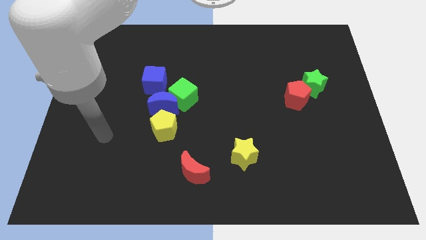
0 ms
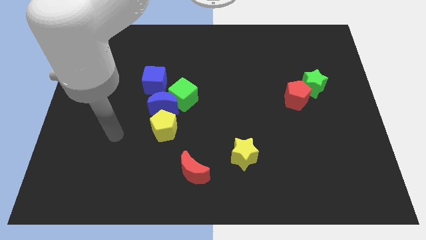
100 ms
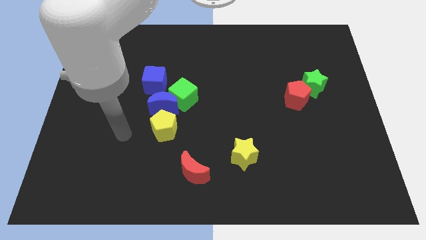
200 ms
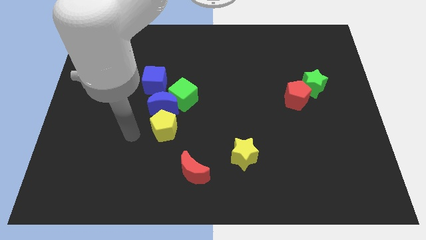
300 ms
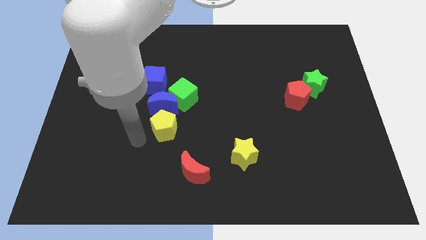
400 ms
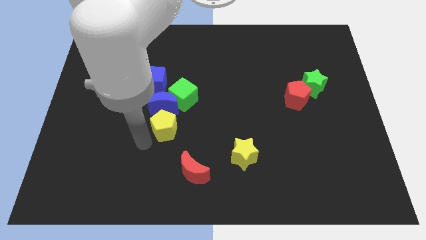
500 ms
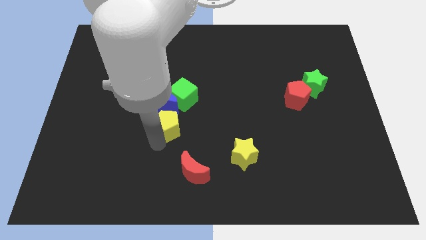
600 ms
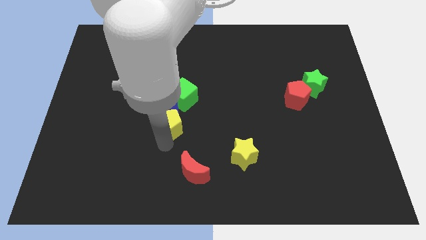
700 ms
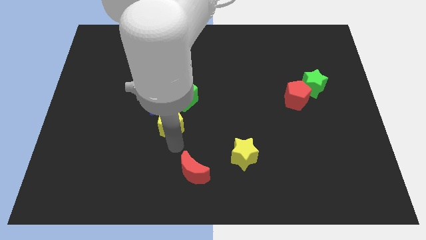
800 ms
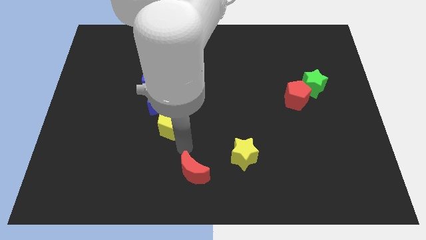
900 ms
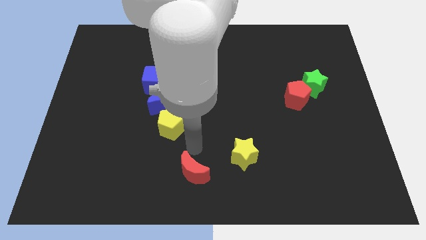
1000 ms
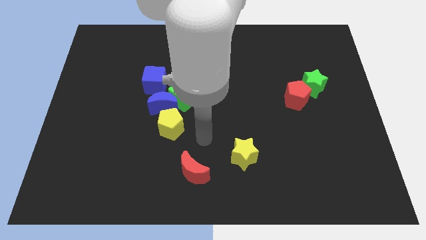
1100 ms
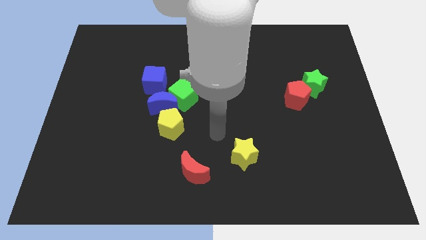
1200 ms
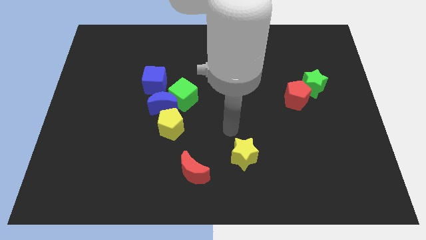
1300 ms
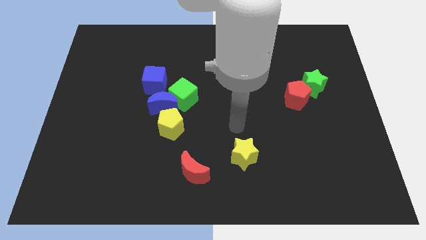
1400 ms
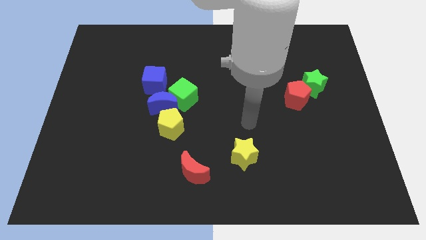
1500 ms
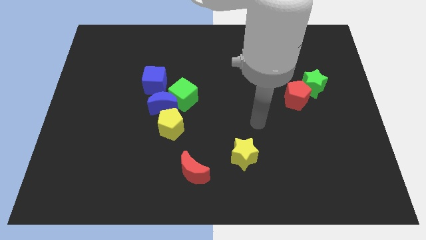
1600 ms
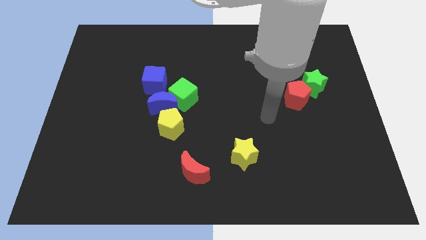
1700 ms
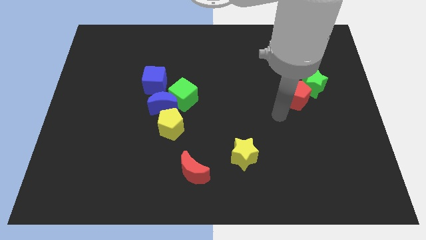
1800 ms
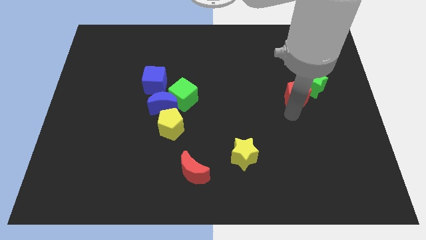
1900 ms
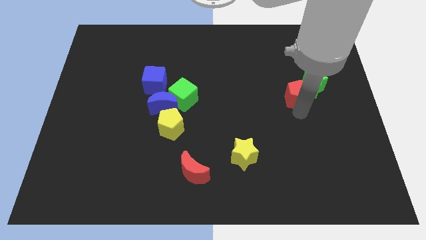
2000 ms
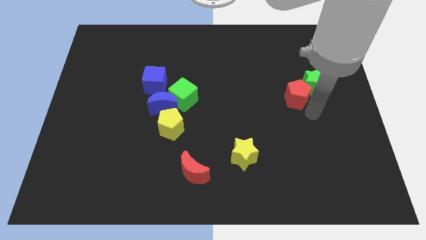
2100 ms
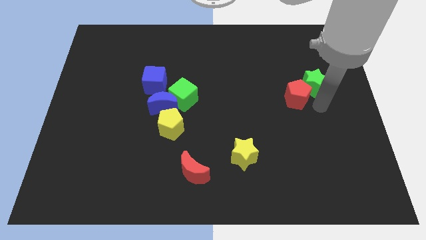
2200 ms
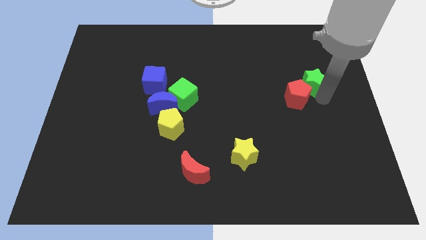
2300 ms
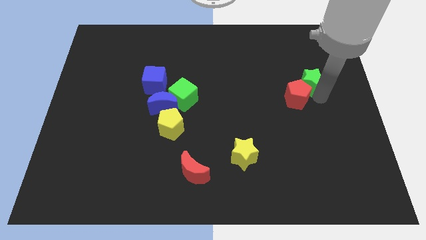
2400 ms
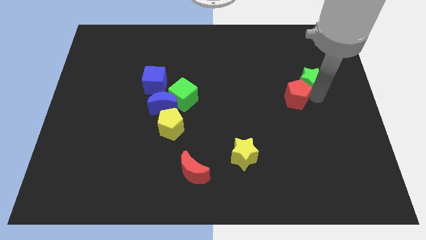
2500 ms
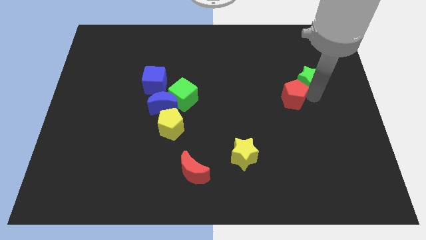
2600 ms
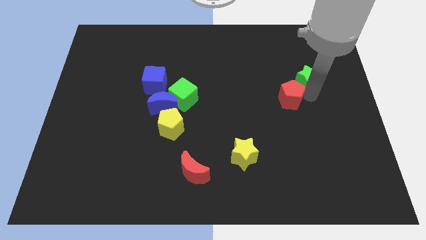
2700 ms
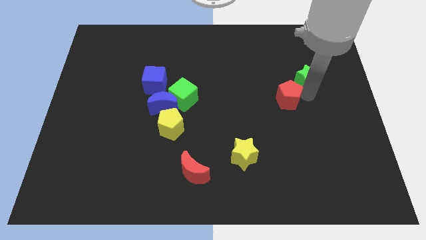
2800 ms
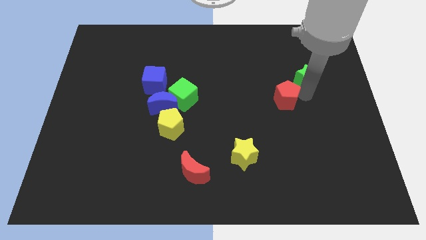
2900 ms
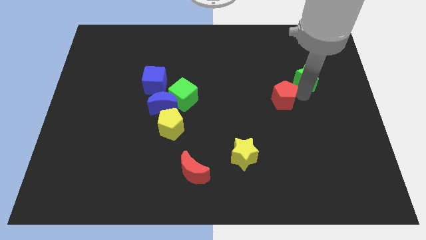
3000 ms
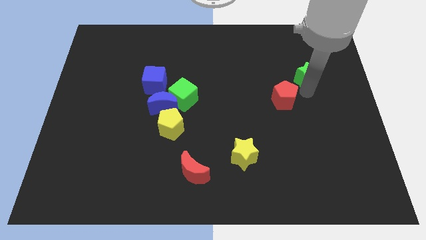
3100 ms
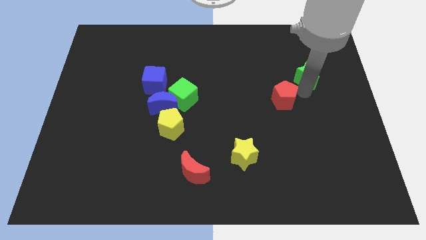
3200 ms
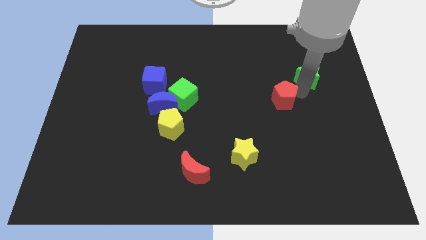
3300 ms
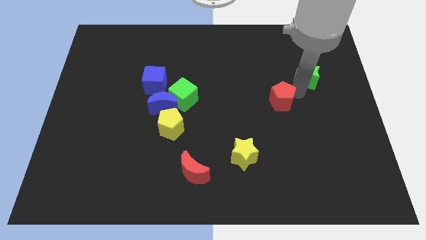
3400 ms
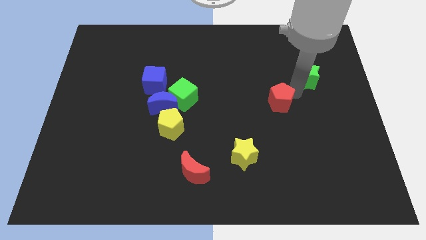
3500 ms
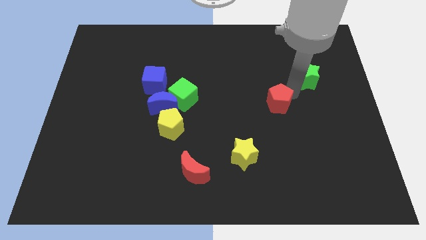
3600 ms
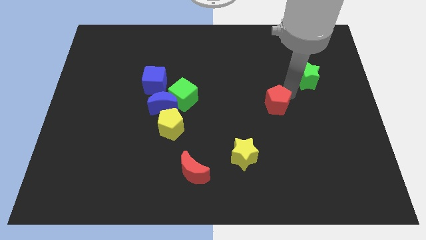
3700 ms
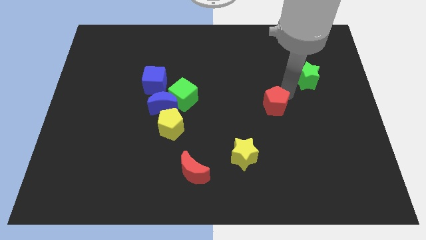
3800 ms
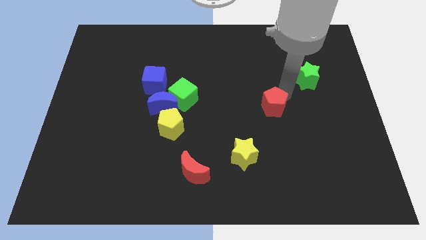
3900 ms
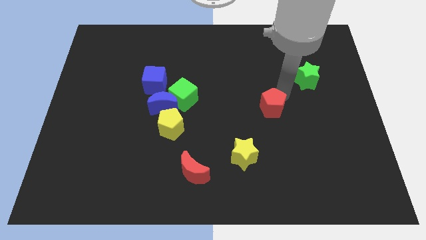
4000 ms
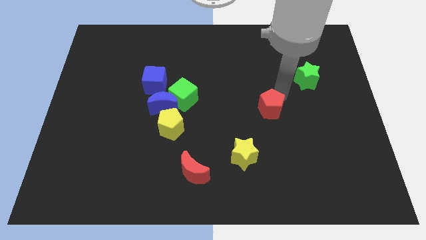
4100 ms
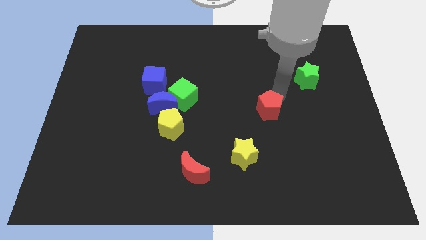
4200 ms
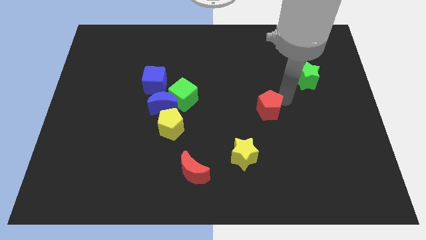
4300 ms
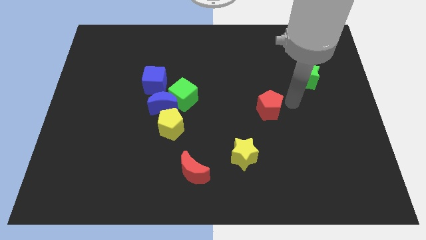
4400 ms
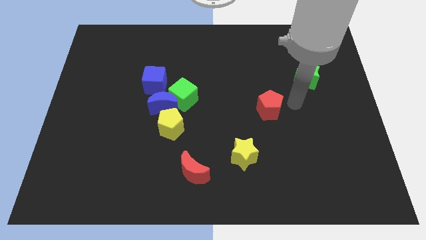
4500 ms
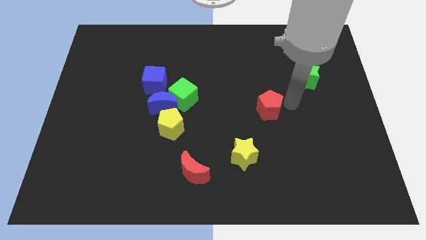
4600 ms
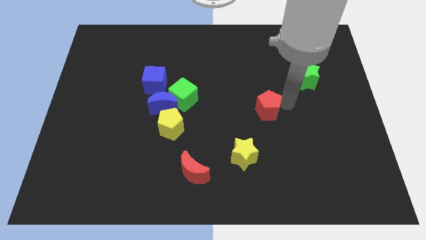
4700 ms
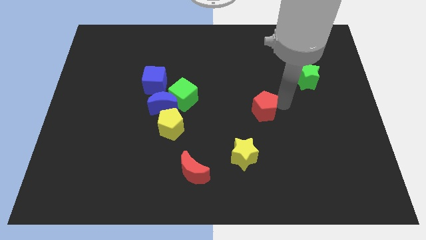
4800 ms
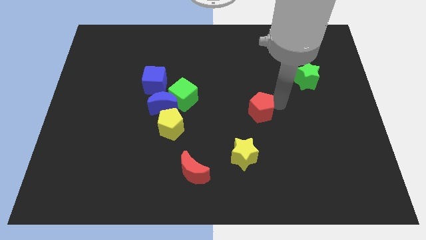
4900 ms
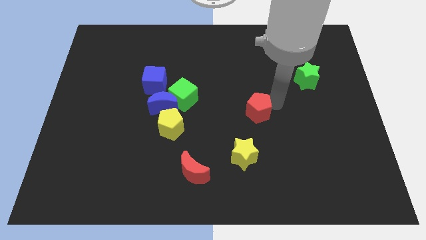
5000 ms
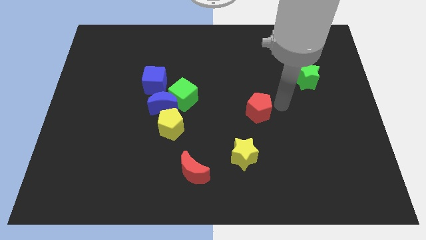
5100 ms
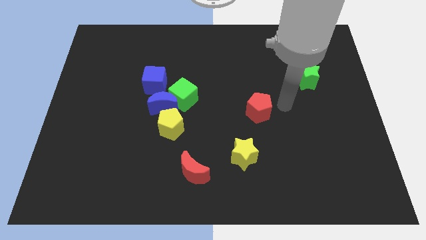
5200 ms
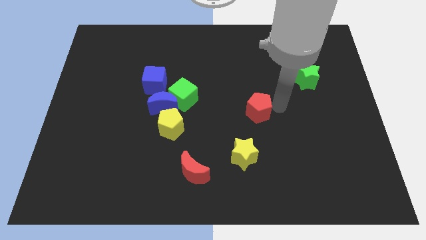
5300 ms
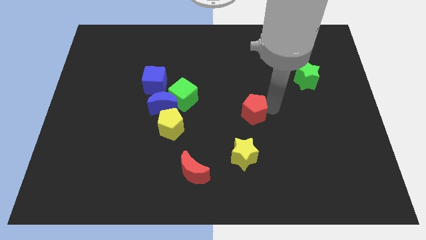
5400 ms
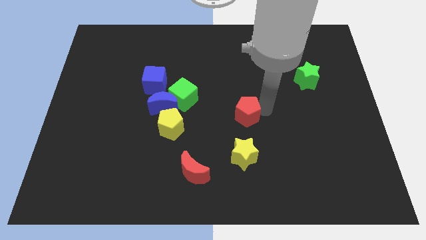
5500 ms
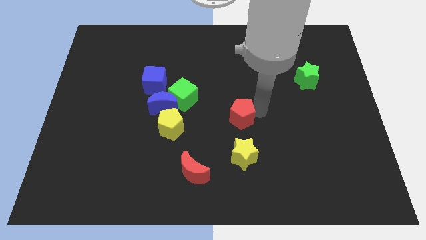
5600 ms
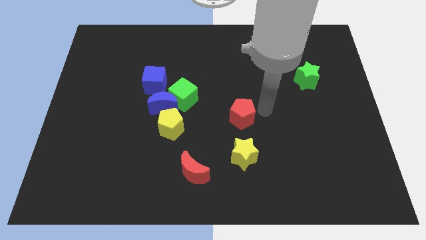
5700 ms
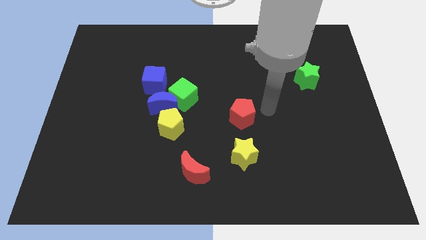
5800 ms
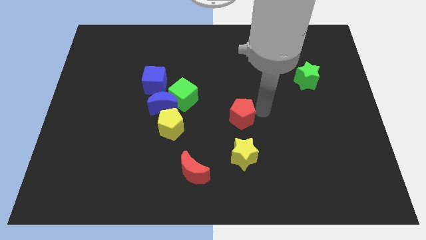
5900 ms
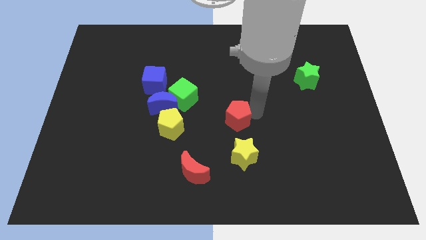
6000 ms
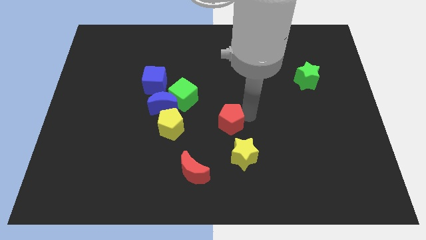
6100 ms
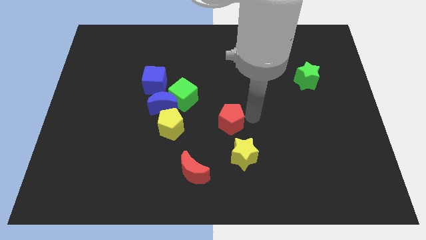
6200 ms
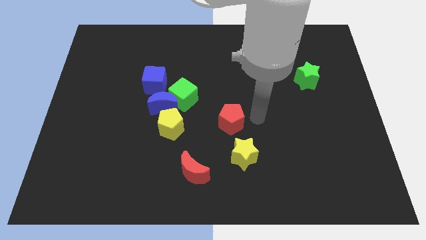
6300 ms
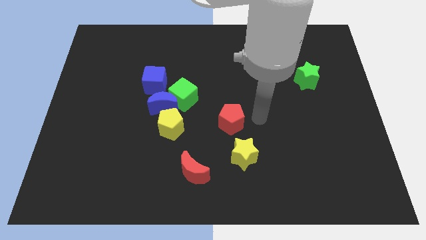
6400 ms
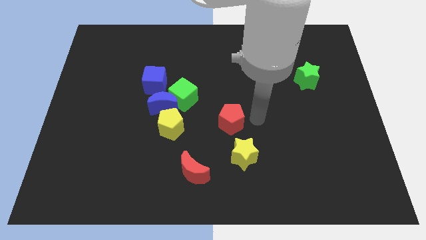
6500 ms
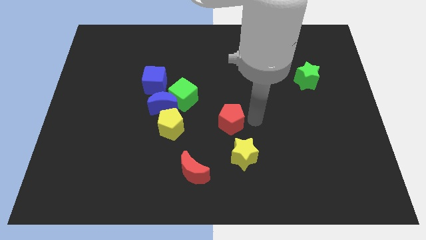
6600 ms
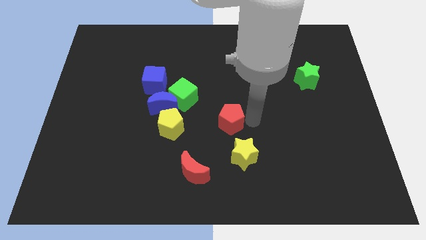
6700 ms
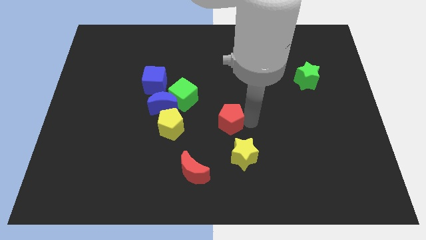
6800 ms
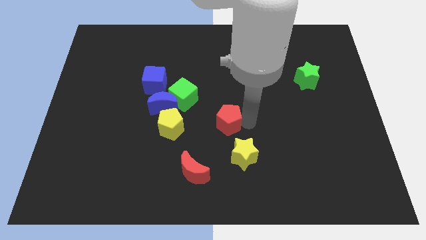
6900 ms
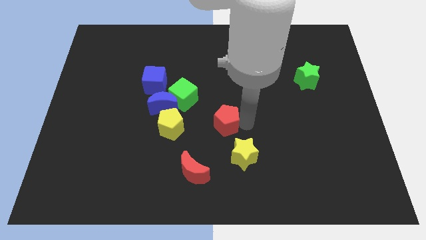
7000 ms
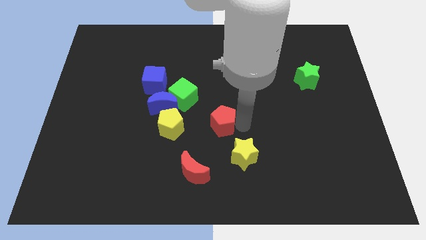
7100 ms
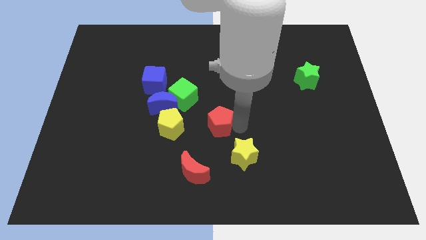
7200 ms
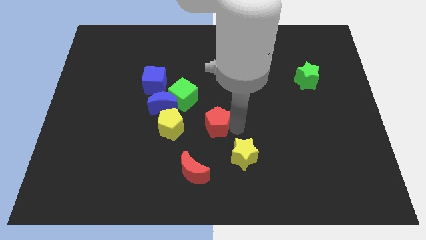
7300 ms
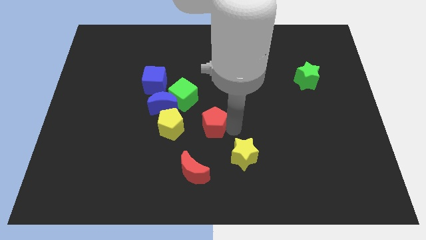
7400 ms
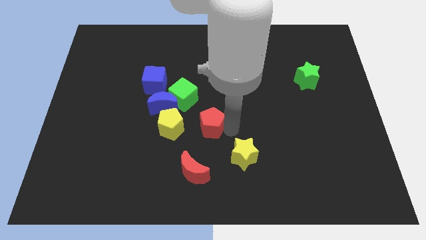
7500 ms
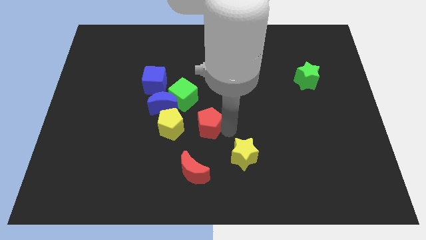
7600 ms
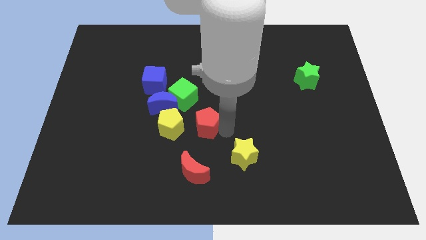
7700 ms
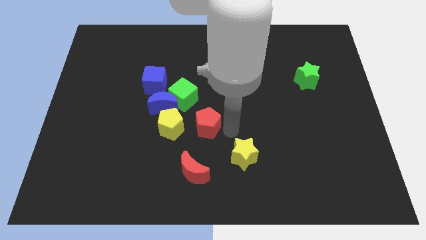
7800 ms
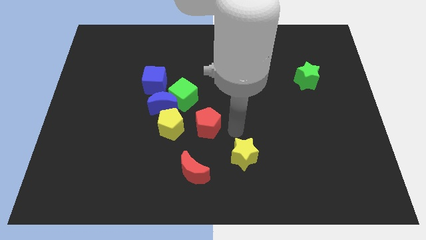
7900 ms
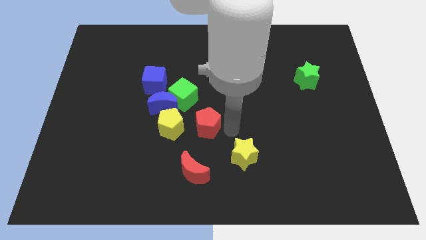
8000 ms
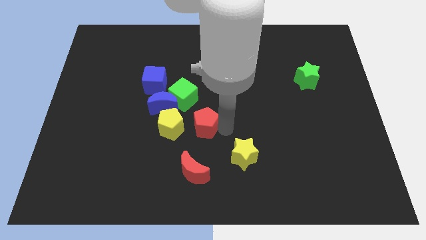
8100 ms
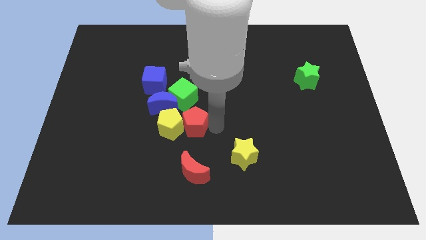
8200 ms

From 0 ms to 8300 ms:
move the red pentagon to the yellow pentagon
